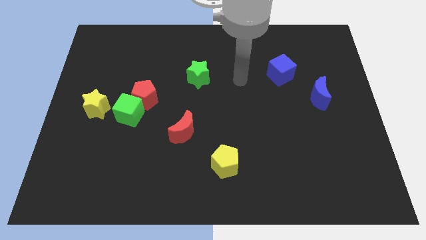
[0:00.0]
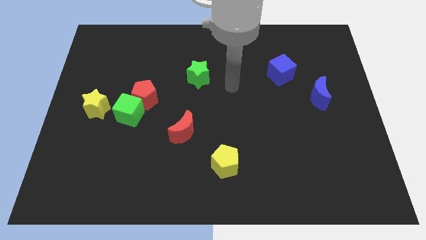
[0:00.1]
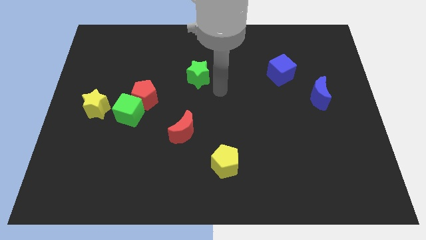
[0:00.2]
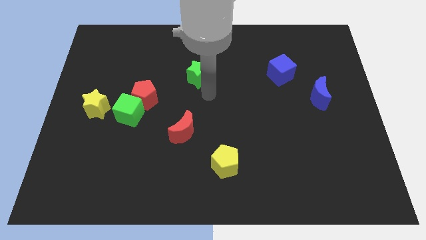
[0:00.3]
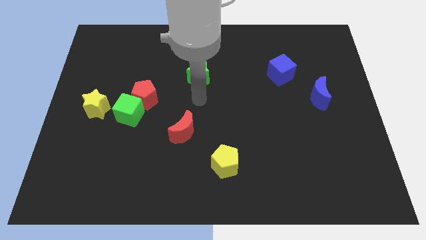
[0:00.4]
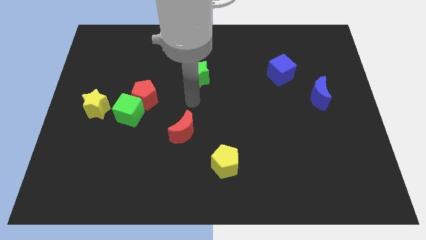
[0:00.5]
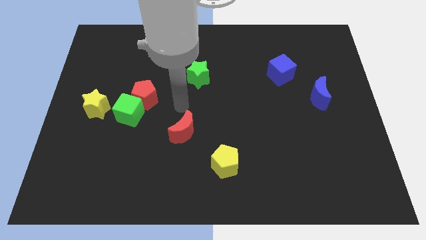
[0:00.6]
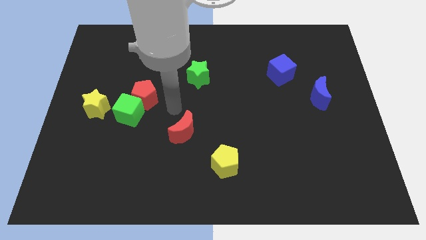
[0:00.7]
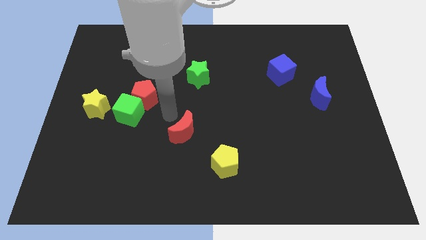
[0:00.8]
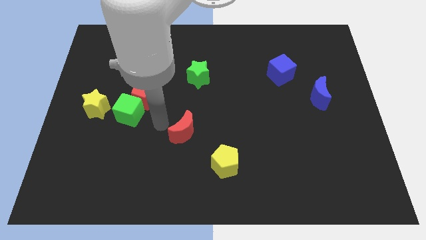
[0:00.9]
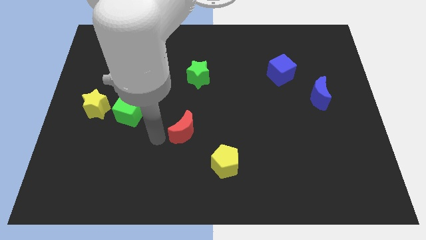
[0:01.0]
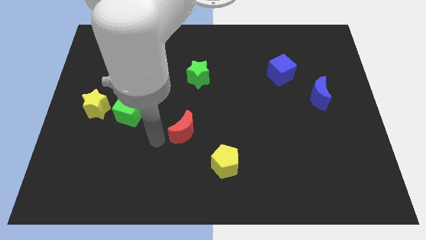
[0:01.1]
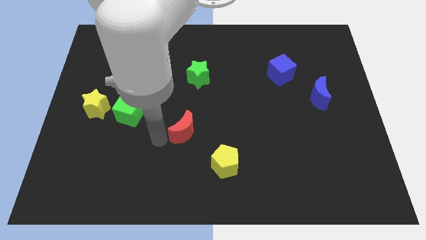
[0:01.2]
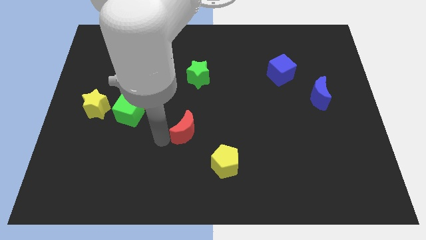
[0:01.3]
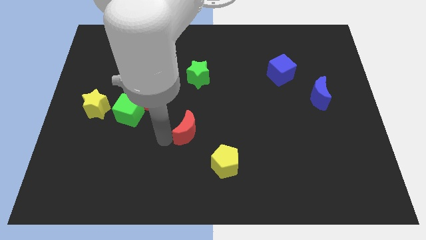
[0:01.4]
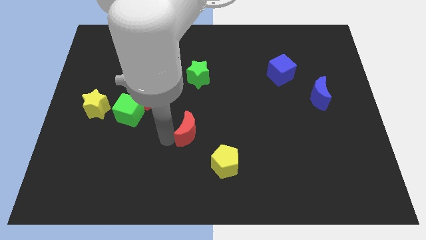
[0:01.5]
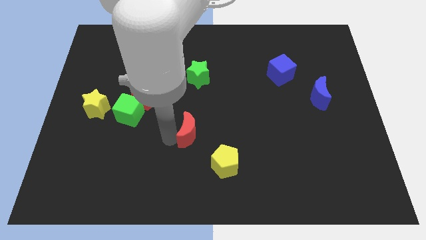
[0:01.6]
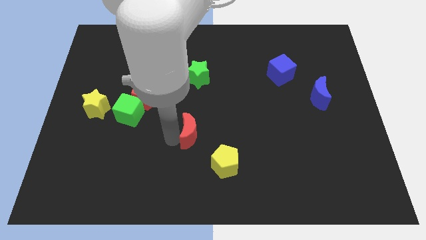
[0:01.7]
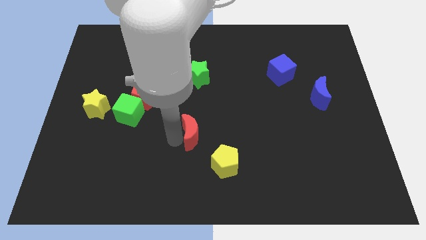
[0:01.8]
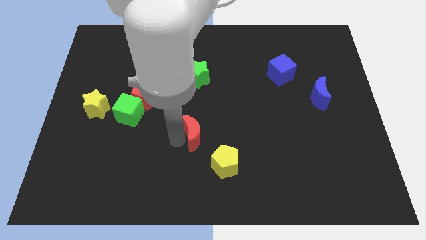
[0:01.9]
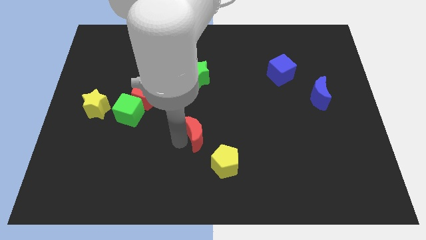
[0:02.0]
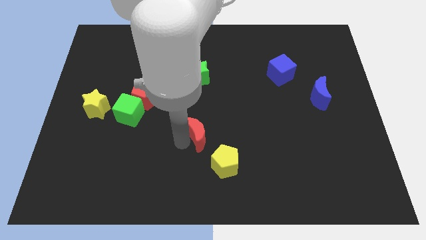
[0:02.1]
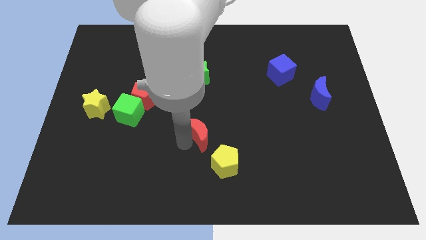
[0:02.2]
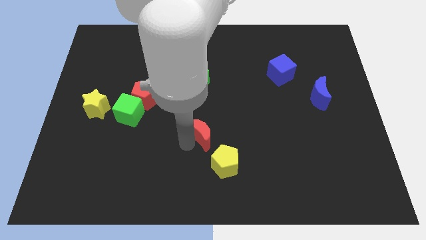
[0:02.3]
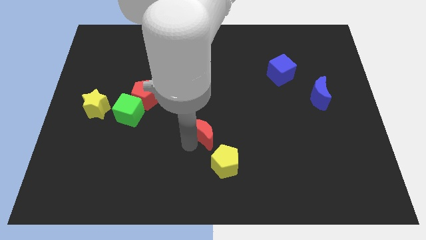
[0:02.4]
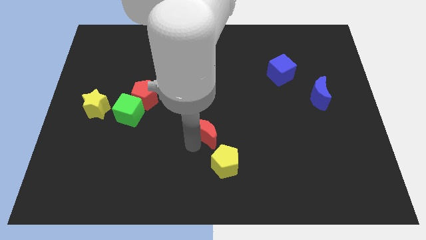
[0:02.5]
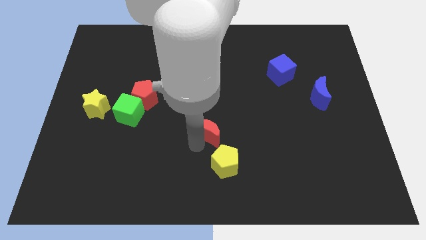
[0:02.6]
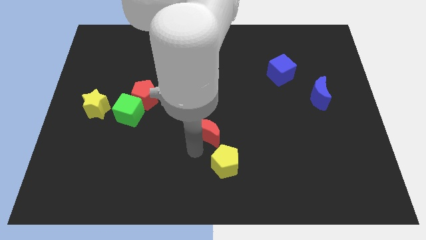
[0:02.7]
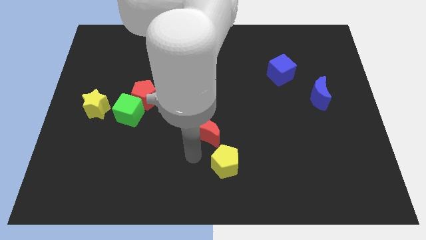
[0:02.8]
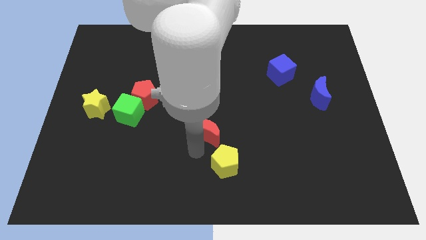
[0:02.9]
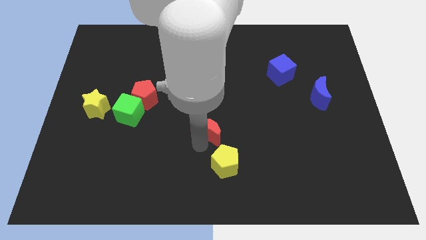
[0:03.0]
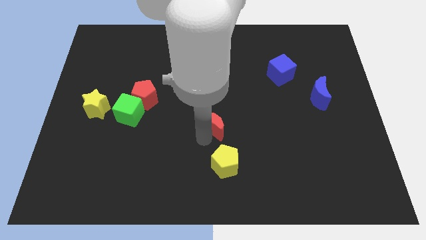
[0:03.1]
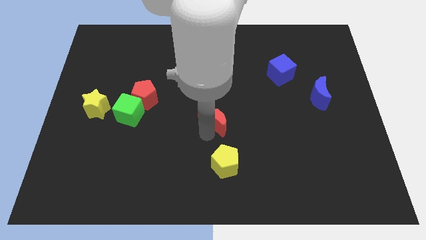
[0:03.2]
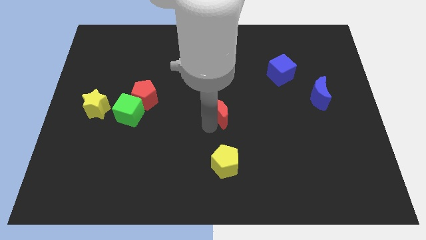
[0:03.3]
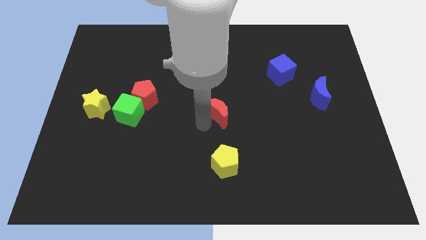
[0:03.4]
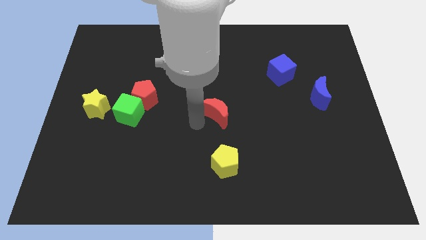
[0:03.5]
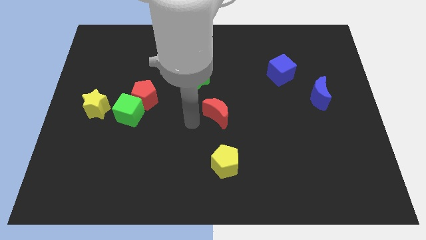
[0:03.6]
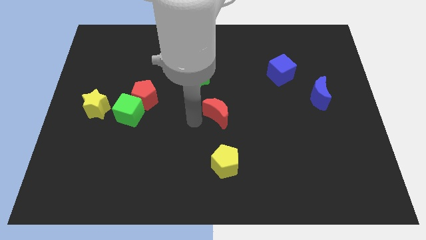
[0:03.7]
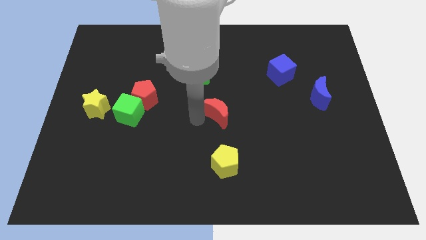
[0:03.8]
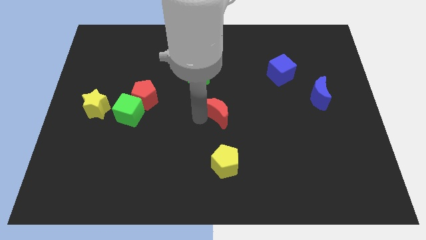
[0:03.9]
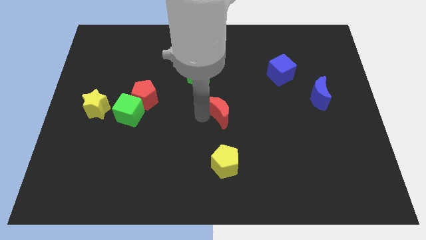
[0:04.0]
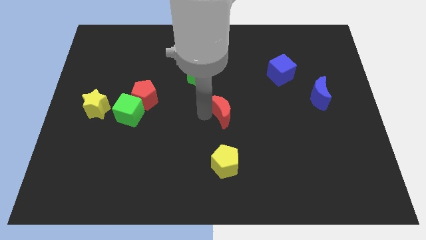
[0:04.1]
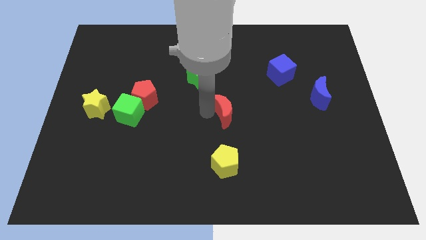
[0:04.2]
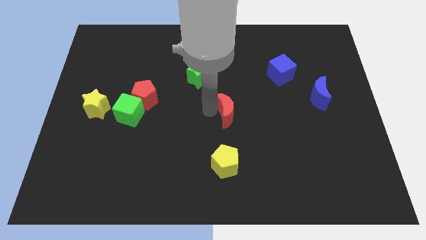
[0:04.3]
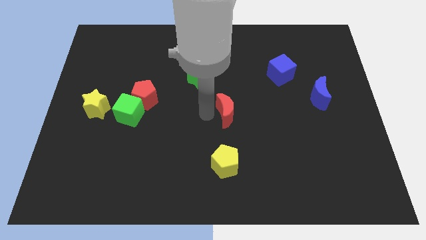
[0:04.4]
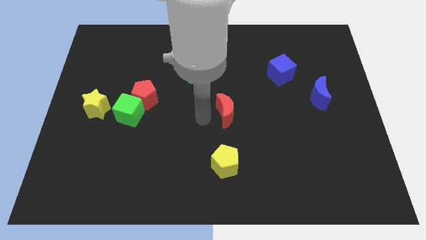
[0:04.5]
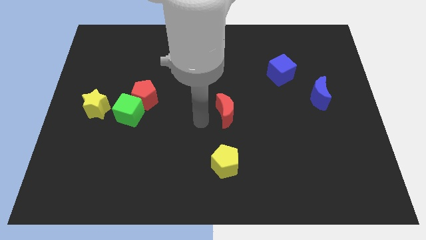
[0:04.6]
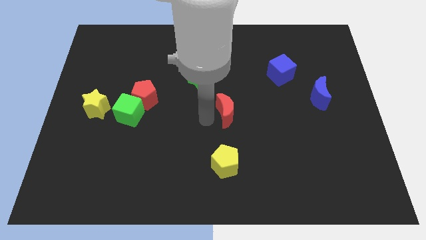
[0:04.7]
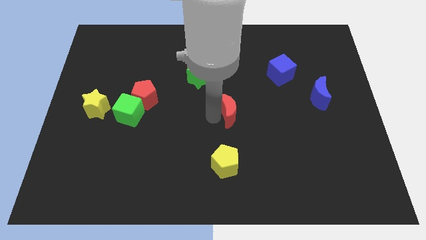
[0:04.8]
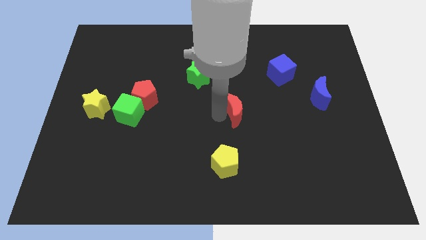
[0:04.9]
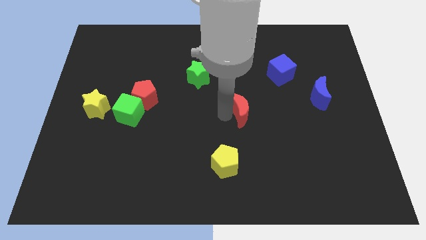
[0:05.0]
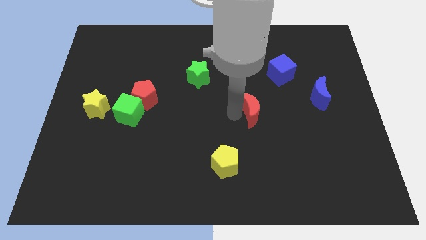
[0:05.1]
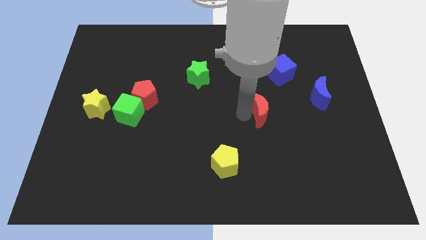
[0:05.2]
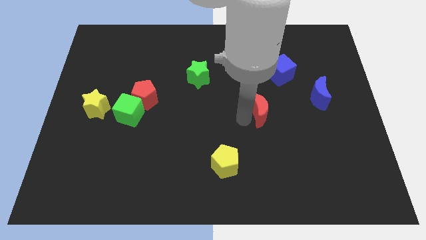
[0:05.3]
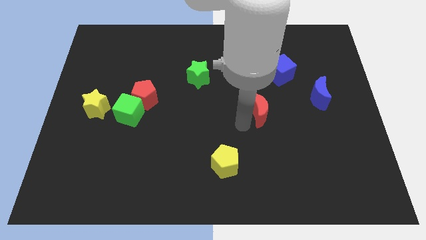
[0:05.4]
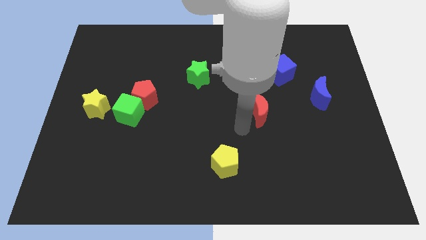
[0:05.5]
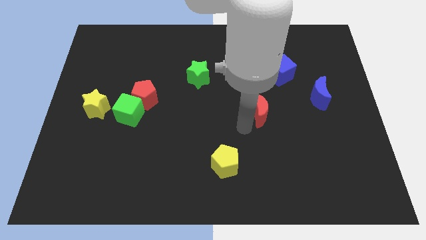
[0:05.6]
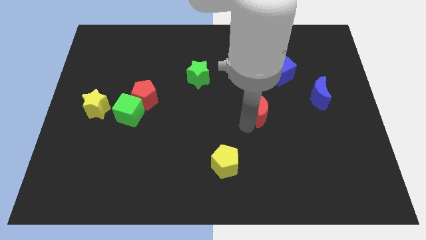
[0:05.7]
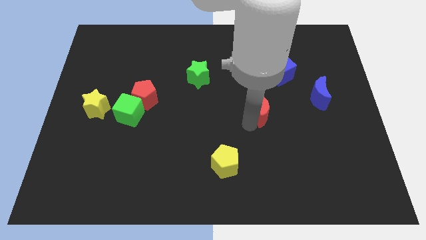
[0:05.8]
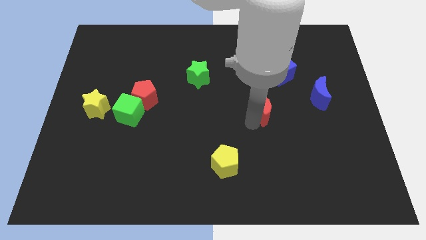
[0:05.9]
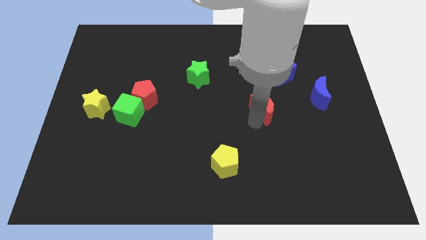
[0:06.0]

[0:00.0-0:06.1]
slide the red moon to the left side of the blue moon

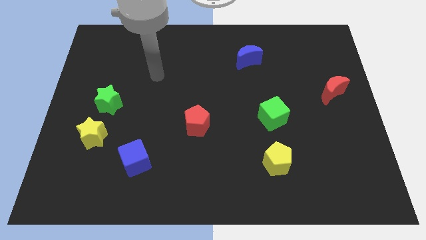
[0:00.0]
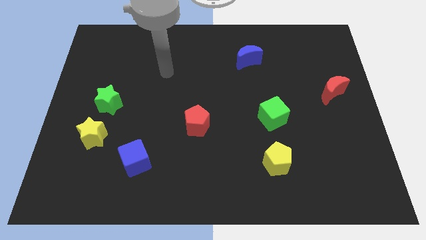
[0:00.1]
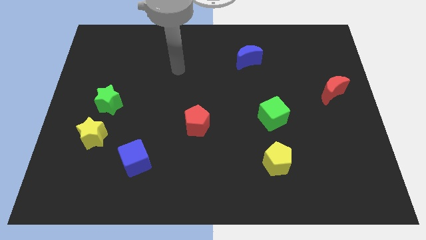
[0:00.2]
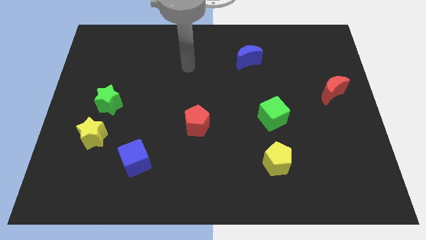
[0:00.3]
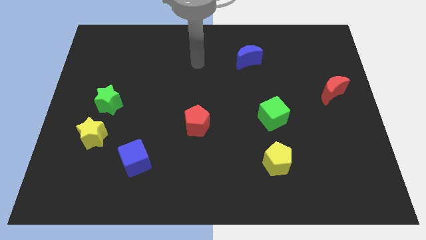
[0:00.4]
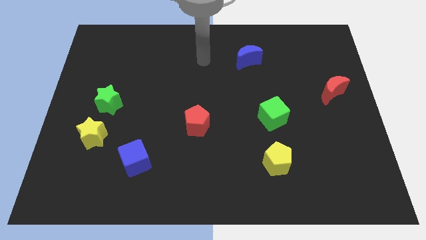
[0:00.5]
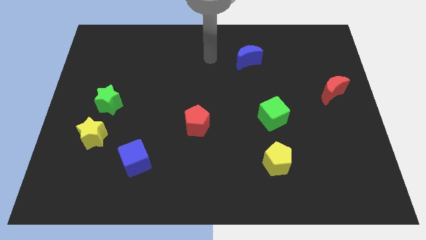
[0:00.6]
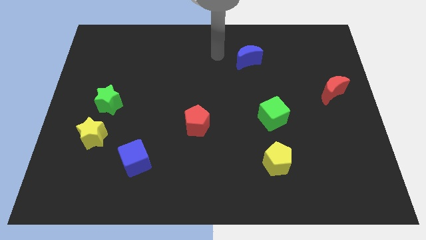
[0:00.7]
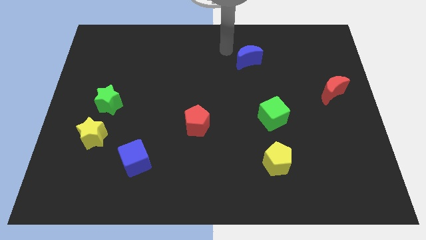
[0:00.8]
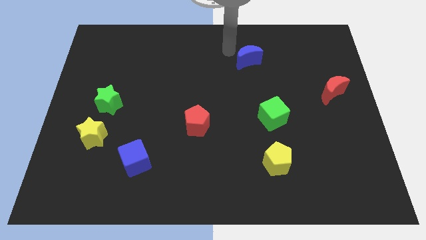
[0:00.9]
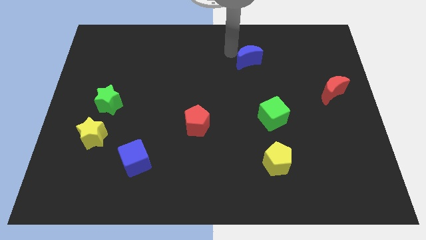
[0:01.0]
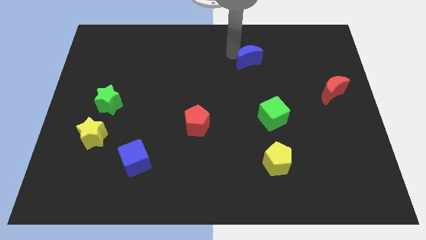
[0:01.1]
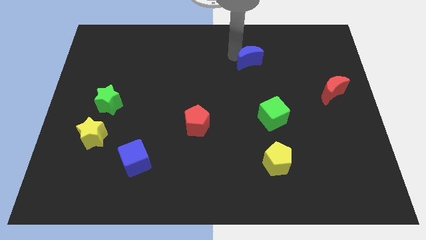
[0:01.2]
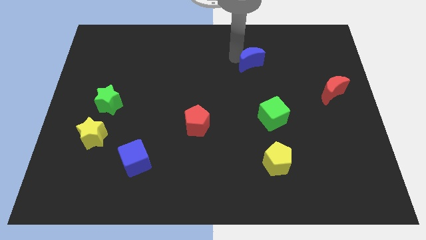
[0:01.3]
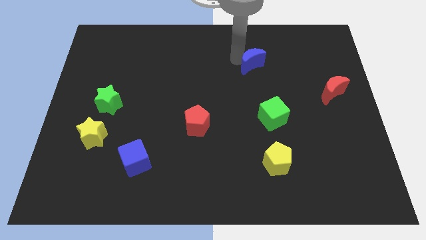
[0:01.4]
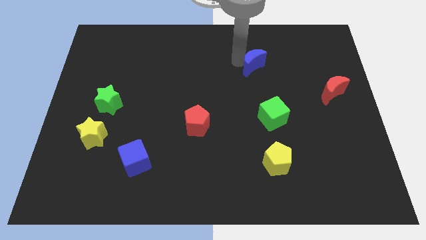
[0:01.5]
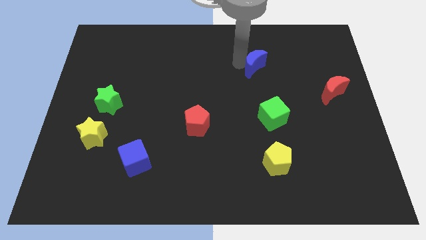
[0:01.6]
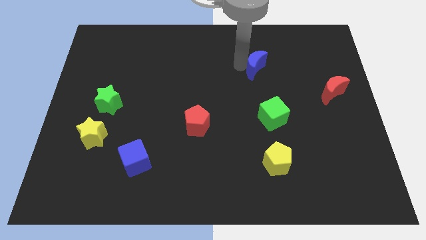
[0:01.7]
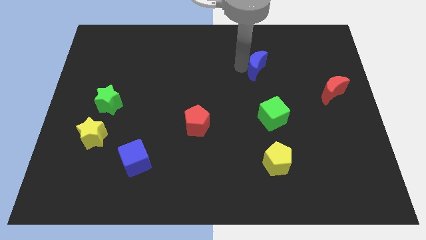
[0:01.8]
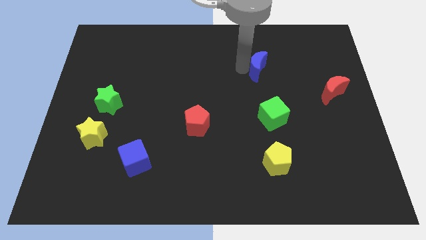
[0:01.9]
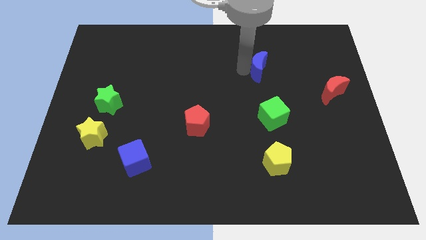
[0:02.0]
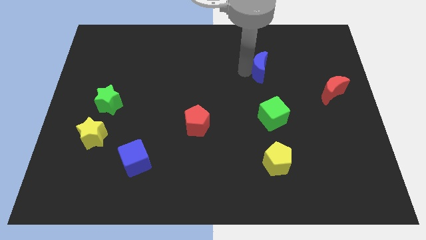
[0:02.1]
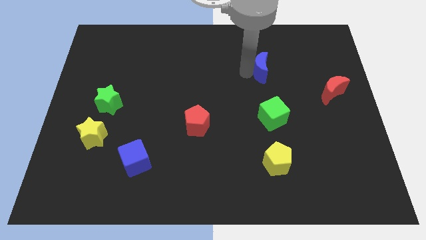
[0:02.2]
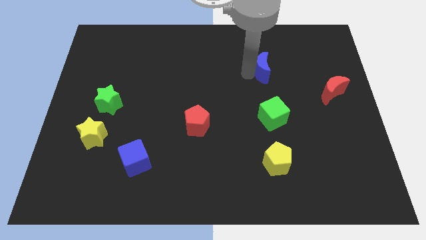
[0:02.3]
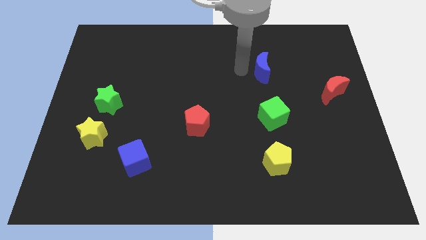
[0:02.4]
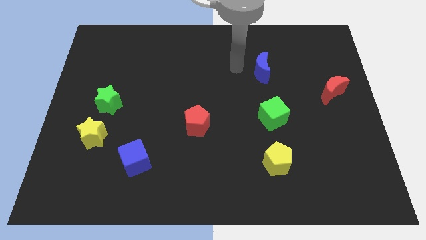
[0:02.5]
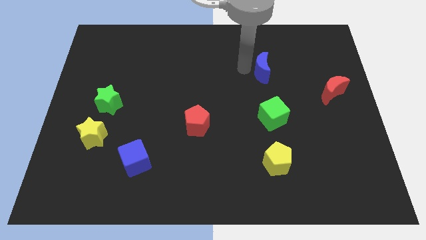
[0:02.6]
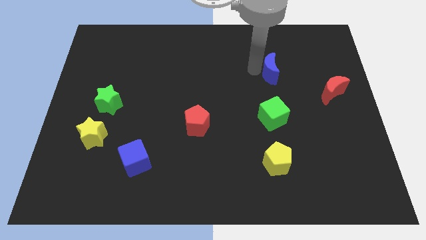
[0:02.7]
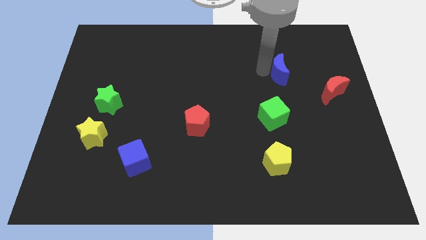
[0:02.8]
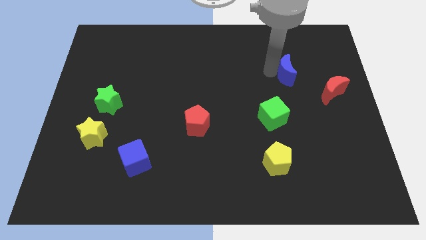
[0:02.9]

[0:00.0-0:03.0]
push the blue moon diagonally up and to the left of the red moon
